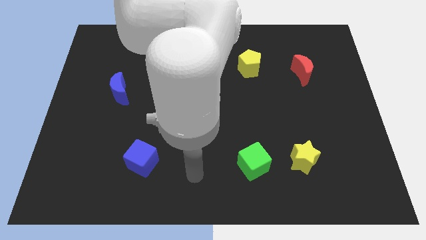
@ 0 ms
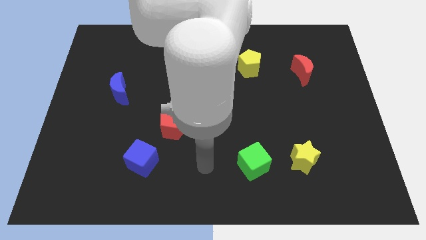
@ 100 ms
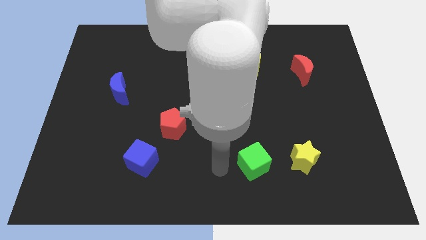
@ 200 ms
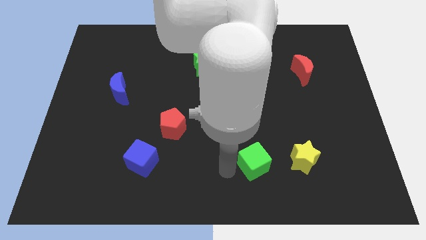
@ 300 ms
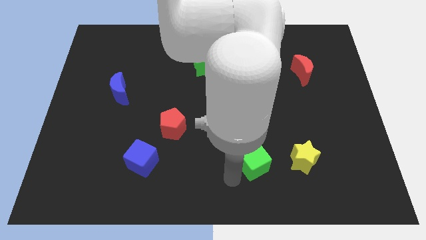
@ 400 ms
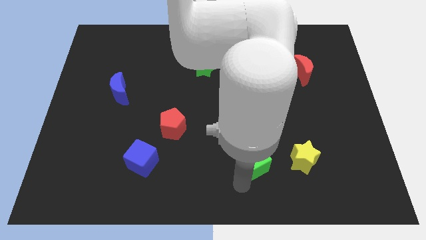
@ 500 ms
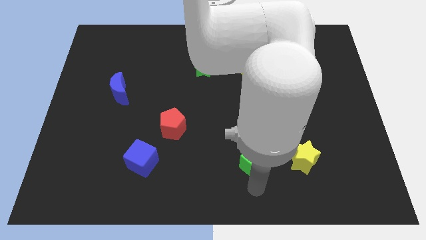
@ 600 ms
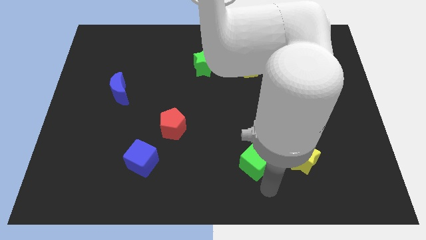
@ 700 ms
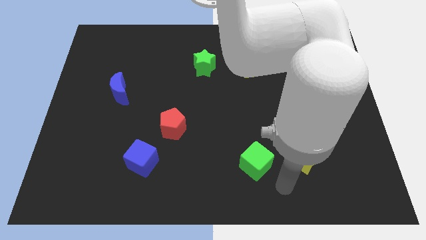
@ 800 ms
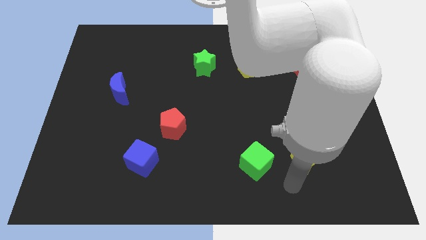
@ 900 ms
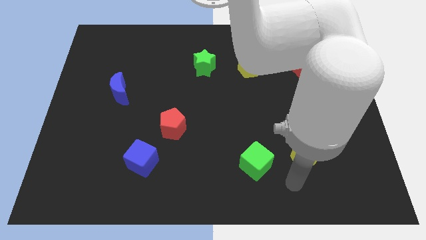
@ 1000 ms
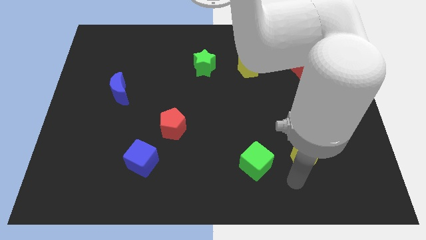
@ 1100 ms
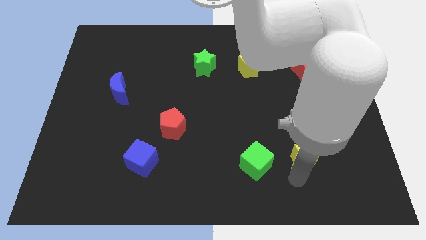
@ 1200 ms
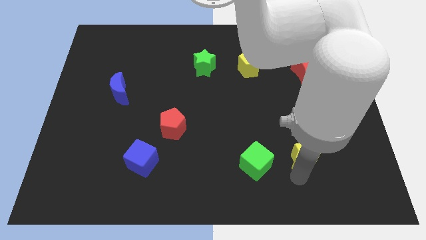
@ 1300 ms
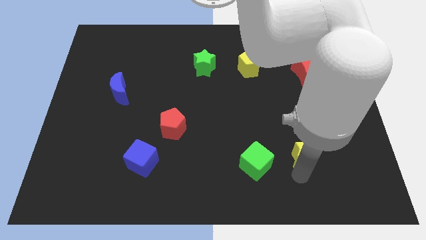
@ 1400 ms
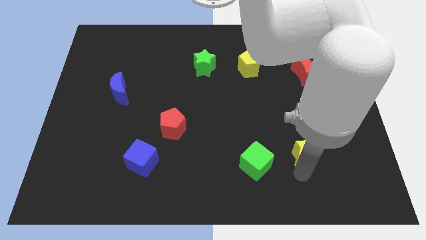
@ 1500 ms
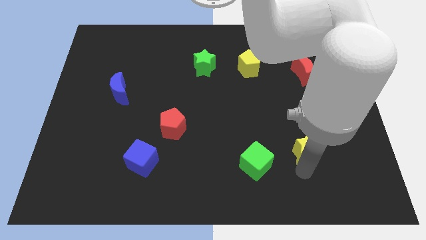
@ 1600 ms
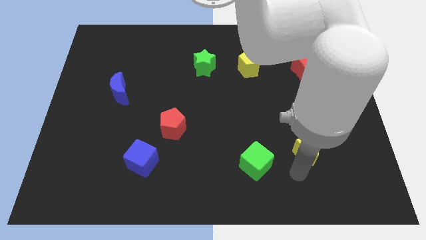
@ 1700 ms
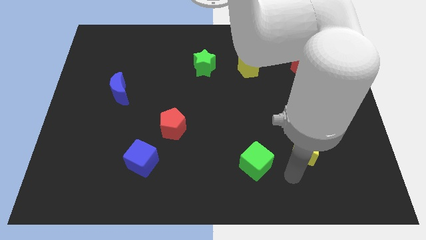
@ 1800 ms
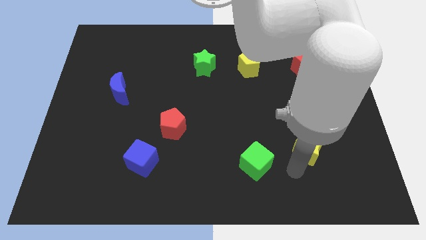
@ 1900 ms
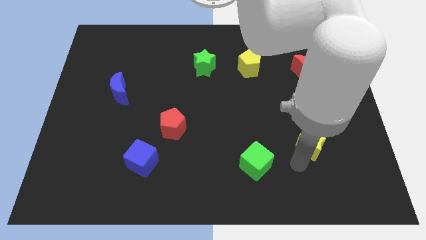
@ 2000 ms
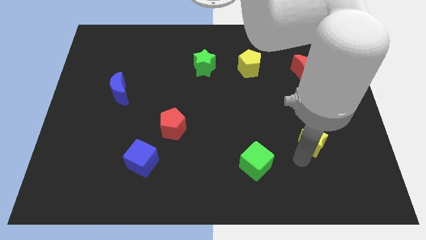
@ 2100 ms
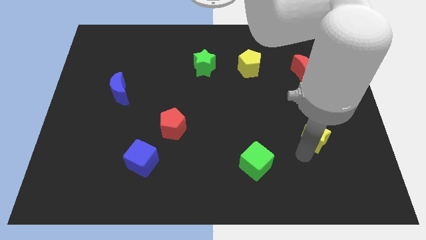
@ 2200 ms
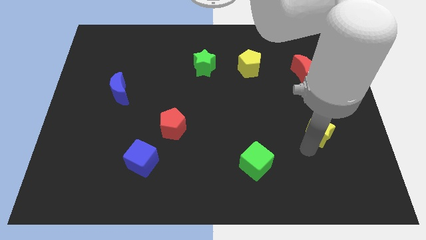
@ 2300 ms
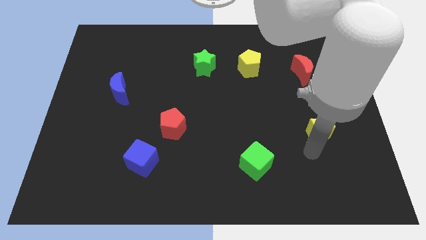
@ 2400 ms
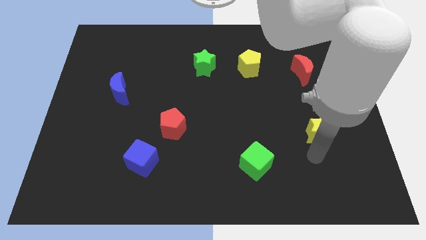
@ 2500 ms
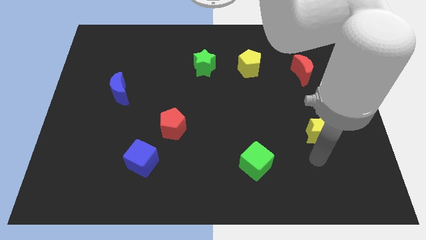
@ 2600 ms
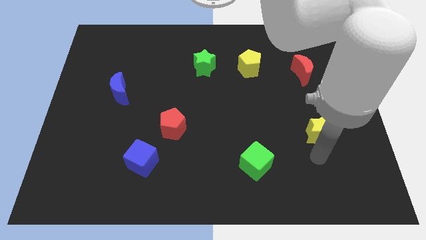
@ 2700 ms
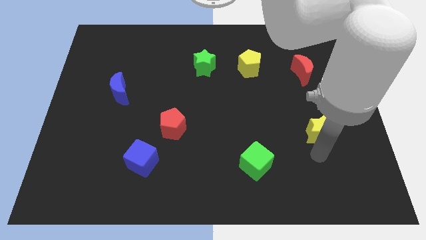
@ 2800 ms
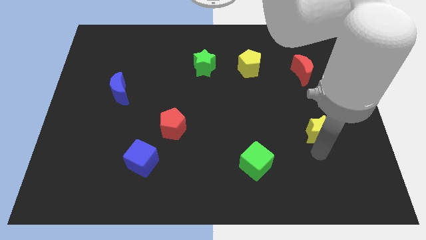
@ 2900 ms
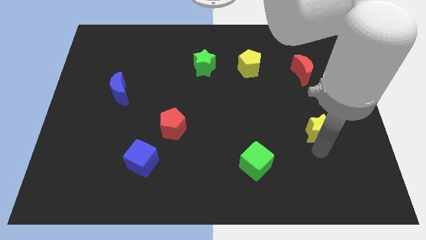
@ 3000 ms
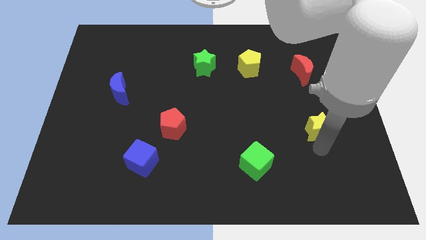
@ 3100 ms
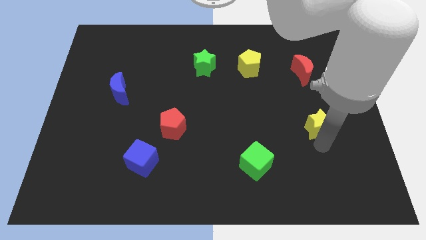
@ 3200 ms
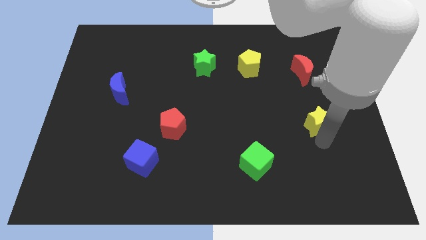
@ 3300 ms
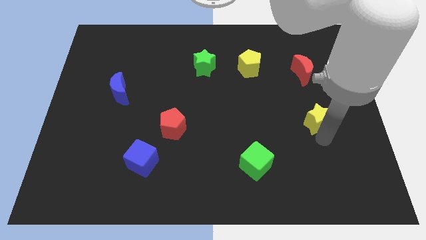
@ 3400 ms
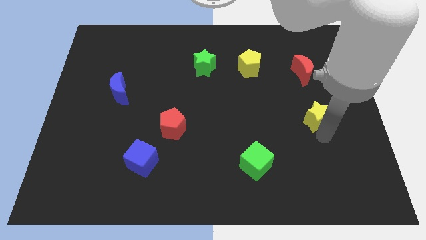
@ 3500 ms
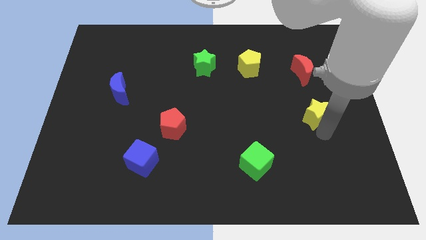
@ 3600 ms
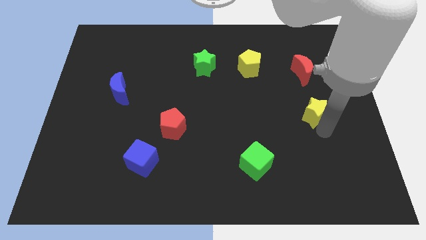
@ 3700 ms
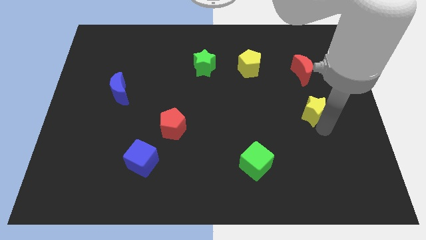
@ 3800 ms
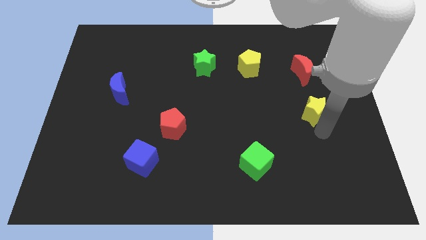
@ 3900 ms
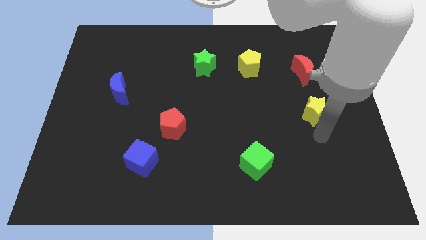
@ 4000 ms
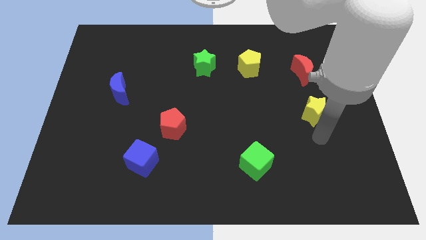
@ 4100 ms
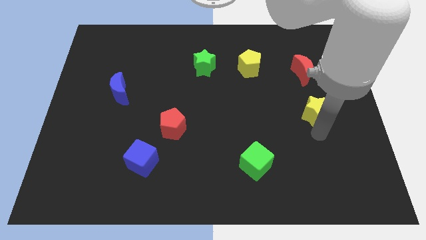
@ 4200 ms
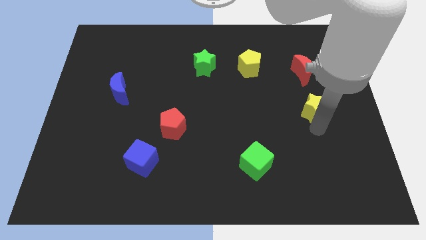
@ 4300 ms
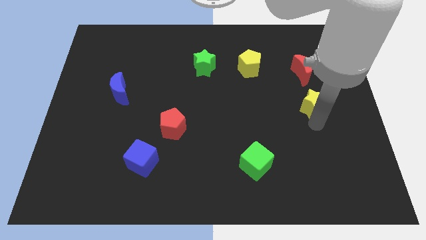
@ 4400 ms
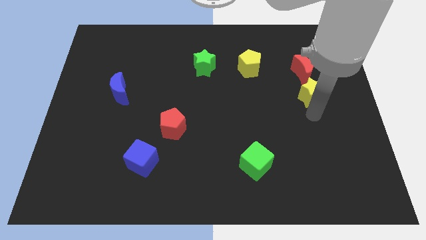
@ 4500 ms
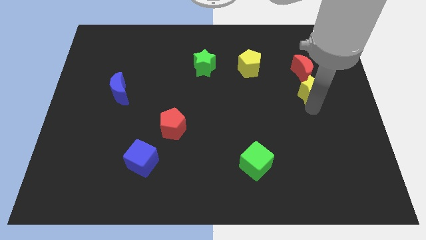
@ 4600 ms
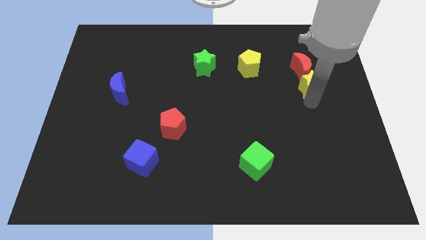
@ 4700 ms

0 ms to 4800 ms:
move the yellow star towards the red moon

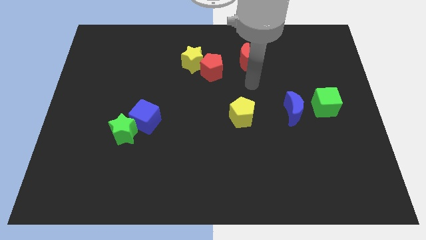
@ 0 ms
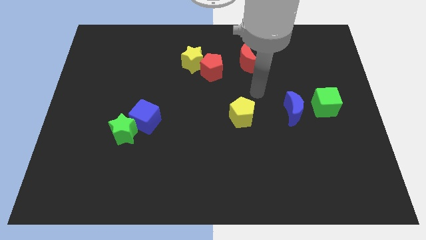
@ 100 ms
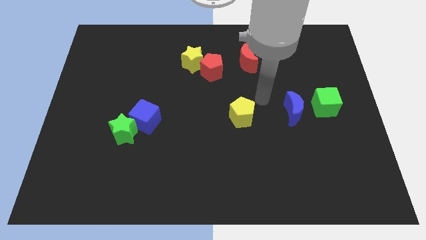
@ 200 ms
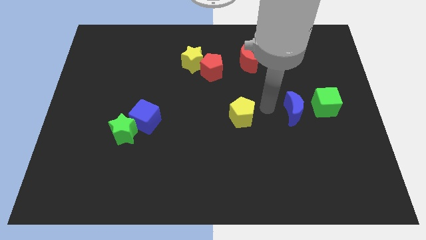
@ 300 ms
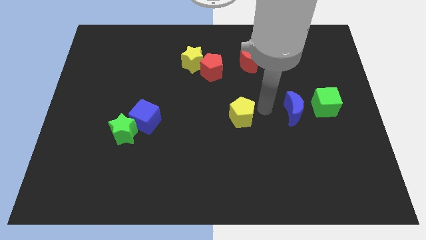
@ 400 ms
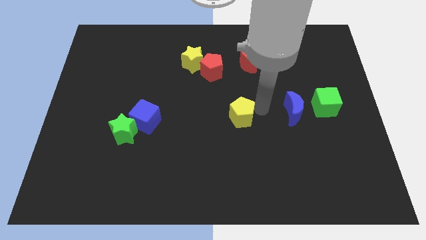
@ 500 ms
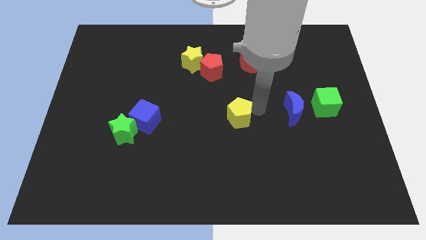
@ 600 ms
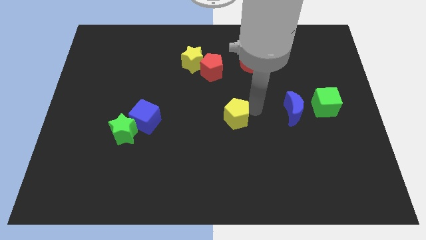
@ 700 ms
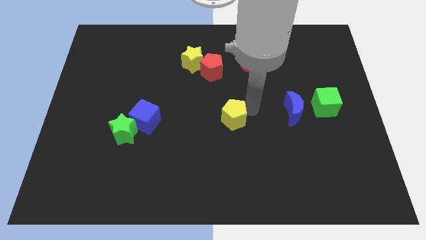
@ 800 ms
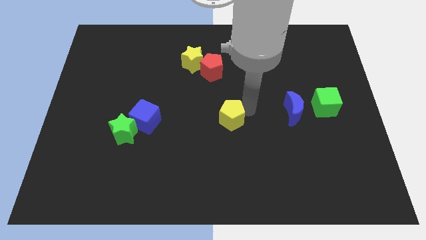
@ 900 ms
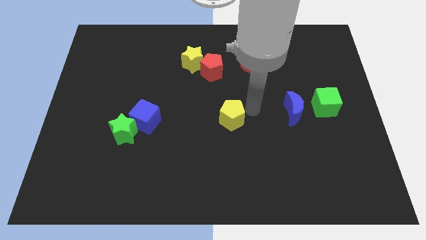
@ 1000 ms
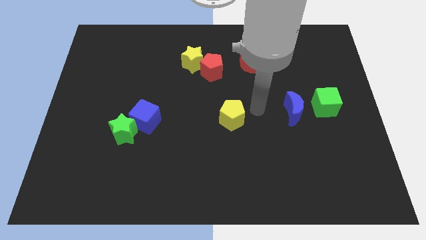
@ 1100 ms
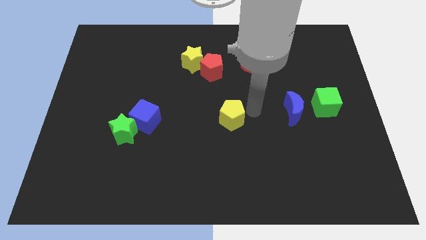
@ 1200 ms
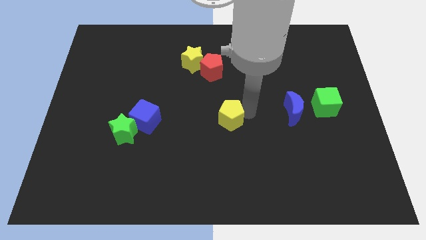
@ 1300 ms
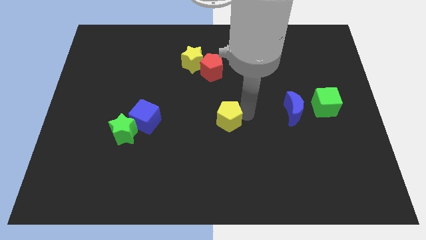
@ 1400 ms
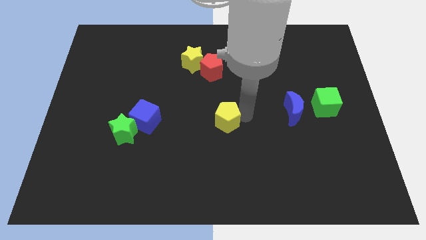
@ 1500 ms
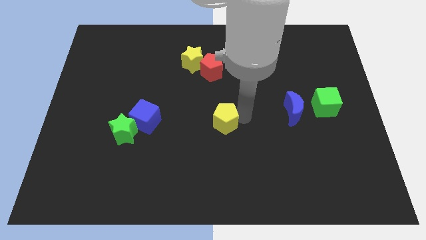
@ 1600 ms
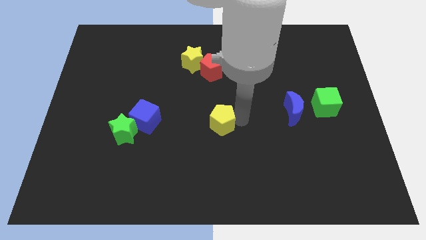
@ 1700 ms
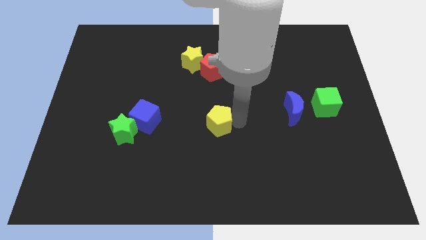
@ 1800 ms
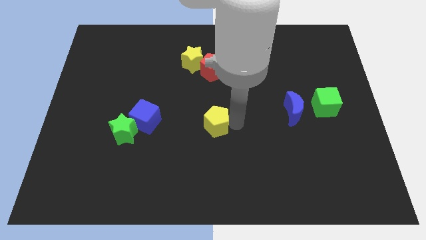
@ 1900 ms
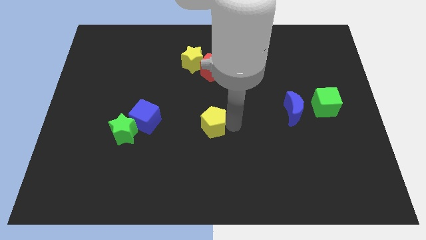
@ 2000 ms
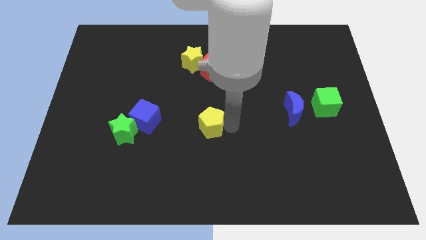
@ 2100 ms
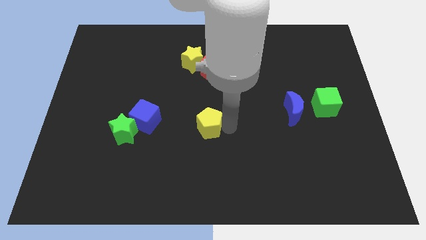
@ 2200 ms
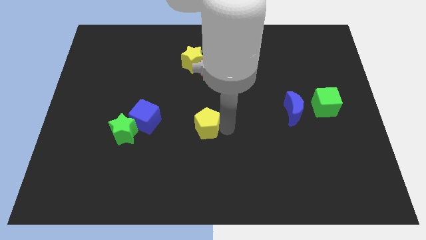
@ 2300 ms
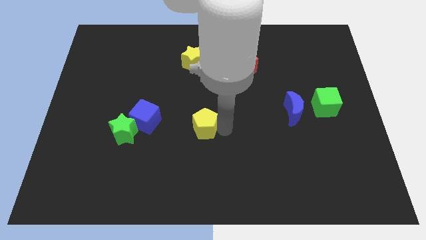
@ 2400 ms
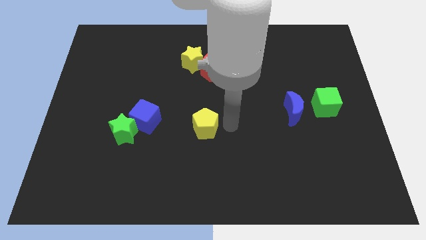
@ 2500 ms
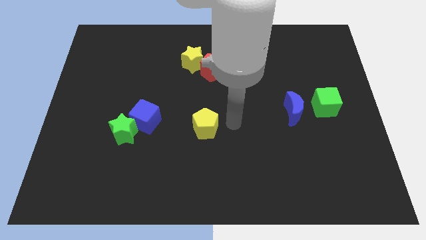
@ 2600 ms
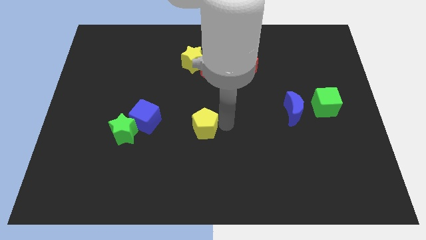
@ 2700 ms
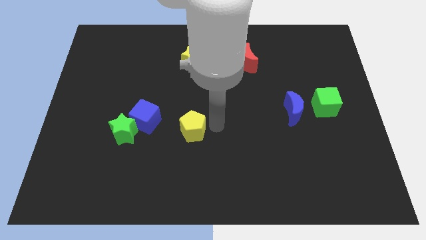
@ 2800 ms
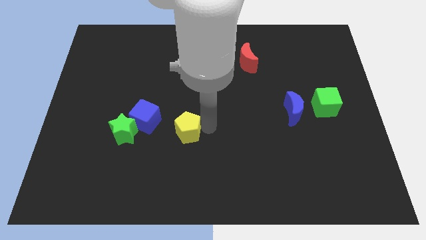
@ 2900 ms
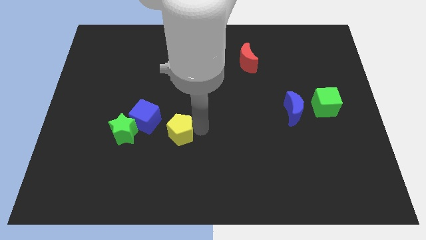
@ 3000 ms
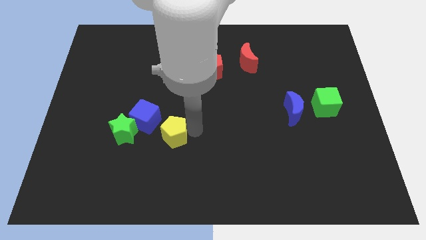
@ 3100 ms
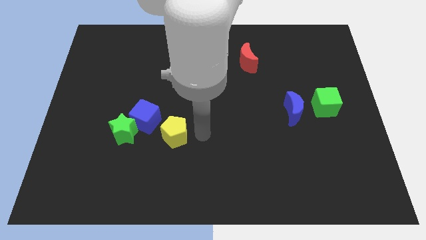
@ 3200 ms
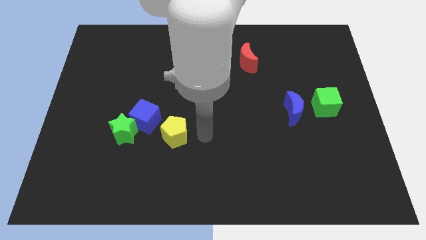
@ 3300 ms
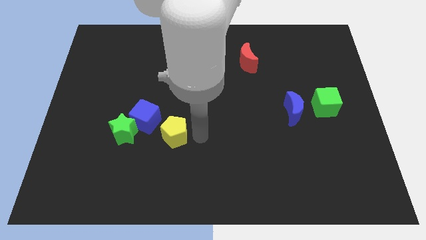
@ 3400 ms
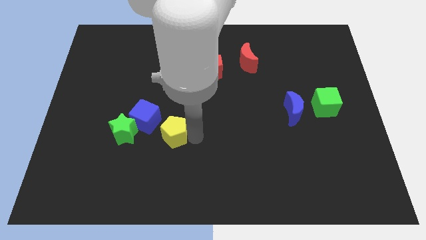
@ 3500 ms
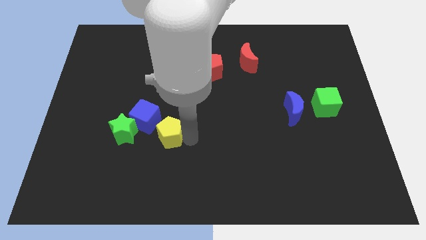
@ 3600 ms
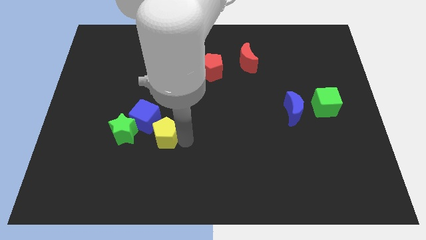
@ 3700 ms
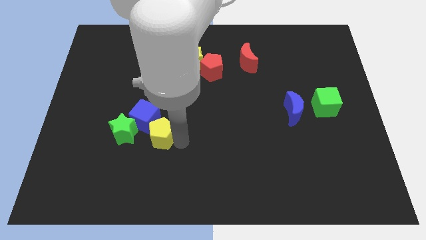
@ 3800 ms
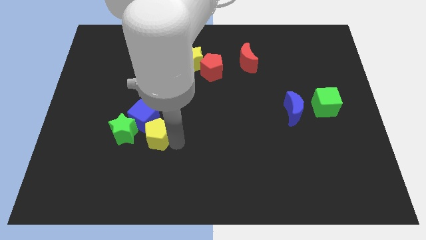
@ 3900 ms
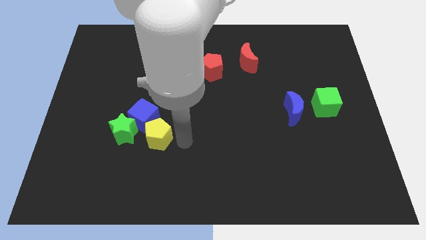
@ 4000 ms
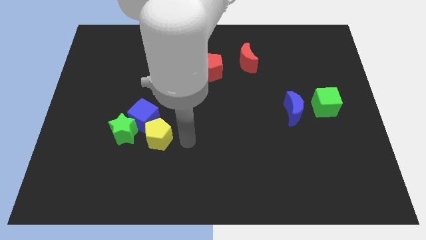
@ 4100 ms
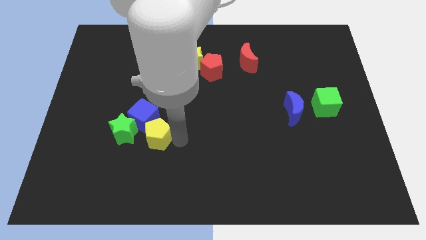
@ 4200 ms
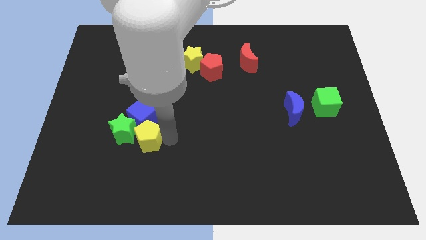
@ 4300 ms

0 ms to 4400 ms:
push the yellow pentagon next to the green star
